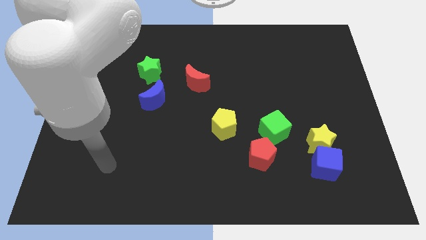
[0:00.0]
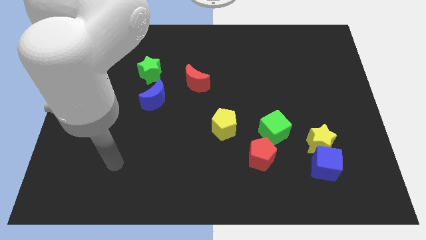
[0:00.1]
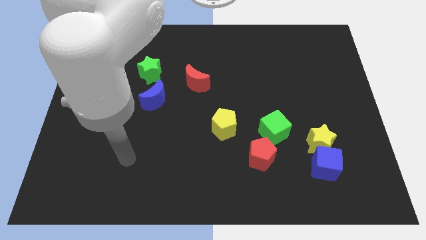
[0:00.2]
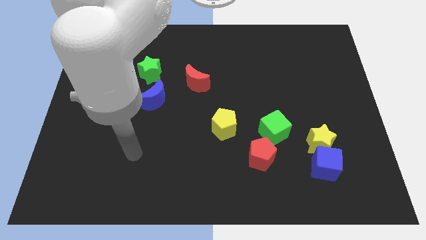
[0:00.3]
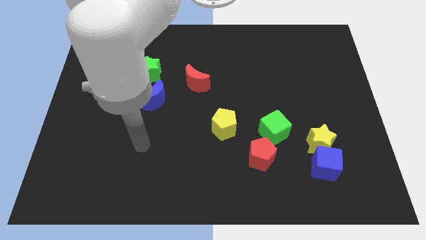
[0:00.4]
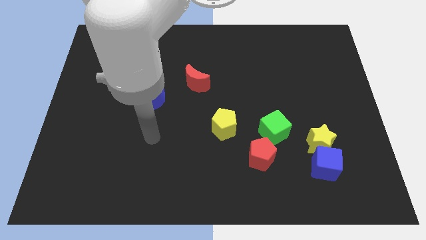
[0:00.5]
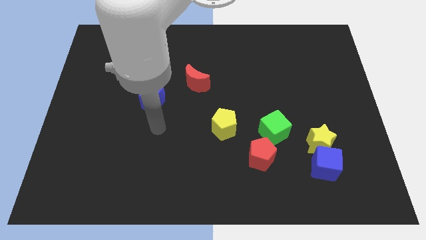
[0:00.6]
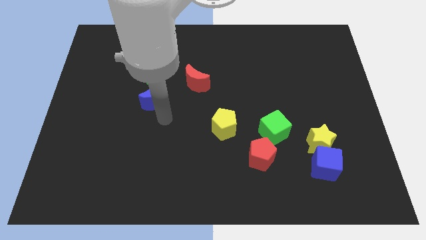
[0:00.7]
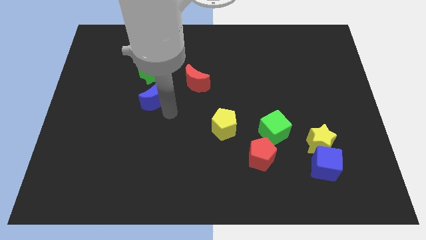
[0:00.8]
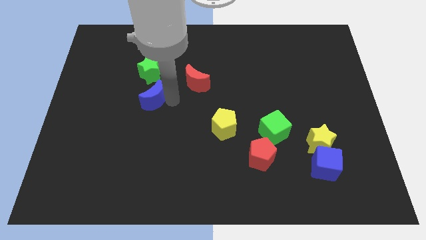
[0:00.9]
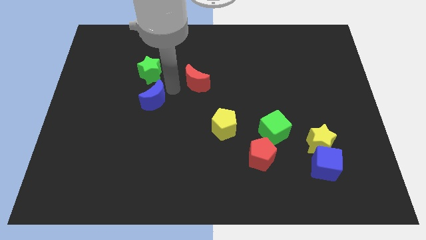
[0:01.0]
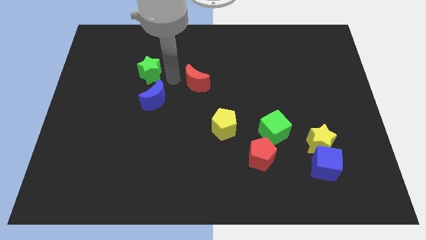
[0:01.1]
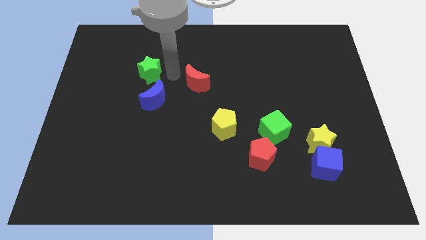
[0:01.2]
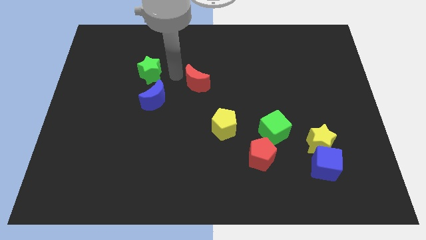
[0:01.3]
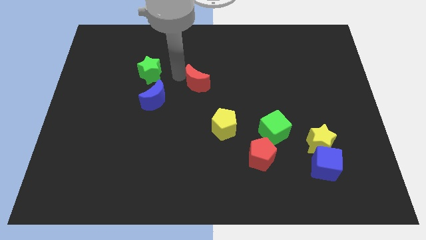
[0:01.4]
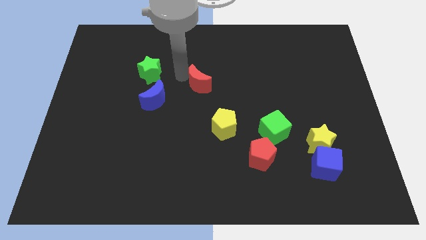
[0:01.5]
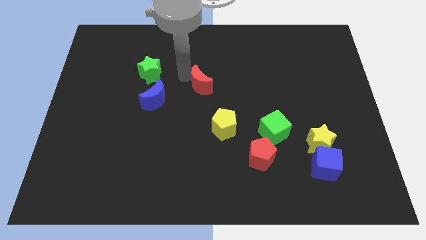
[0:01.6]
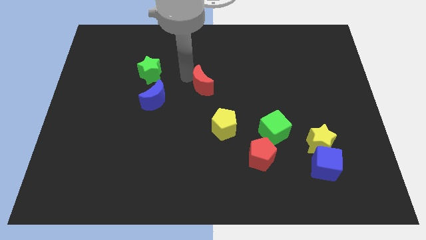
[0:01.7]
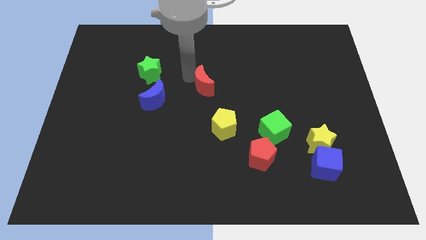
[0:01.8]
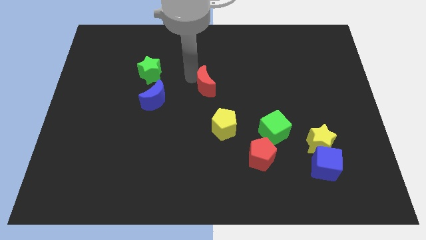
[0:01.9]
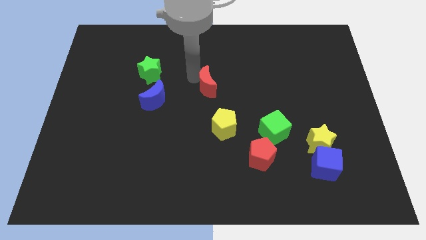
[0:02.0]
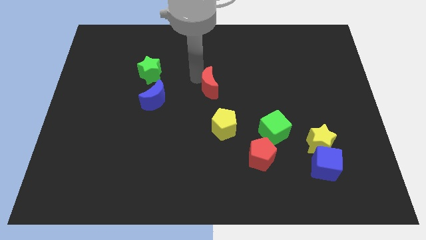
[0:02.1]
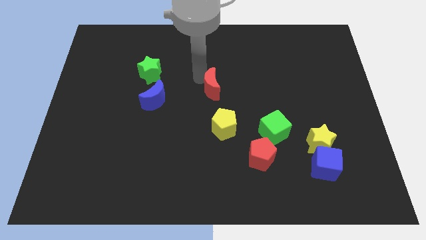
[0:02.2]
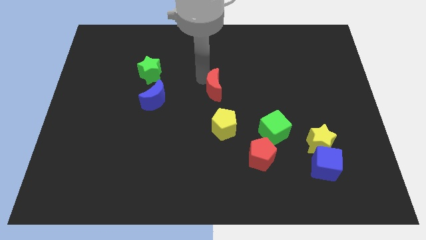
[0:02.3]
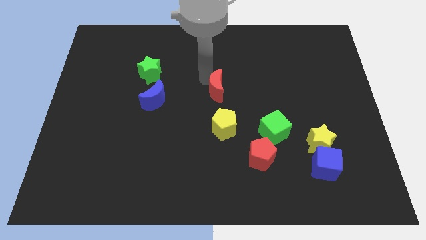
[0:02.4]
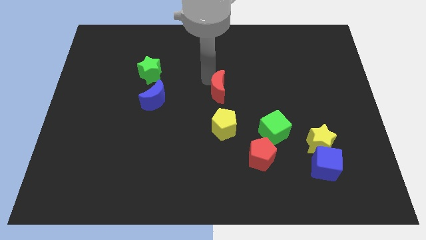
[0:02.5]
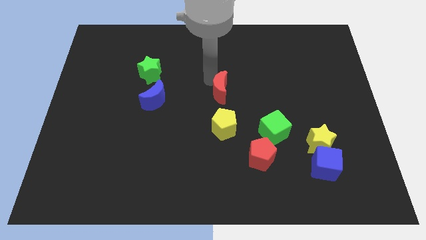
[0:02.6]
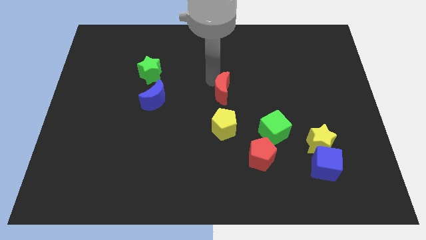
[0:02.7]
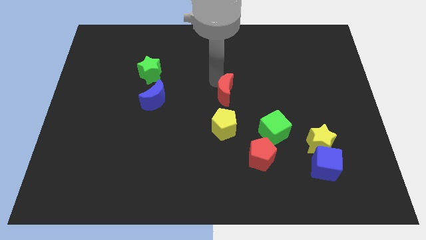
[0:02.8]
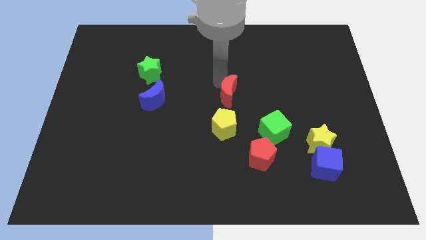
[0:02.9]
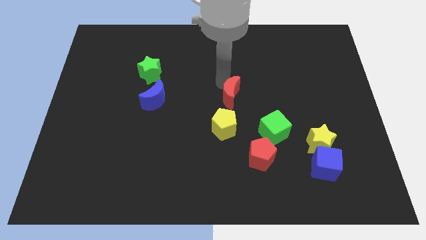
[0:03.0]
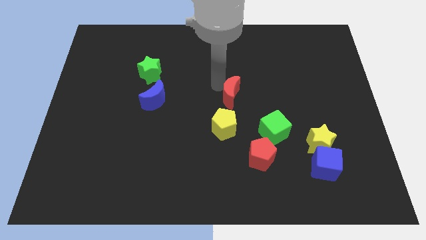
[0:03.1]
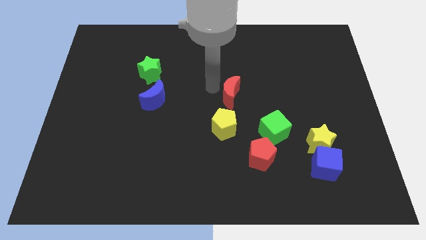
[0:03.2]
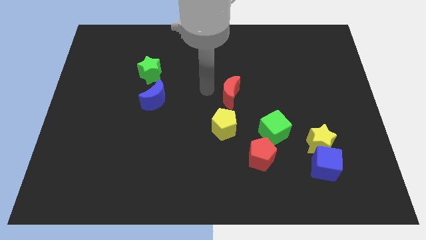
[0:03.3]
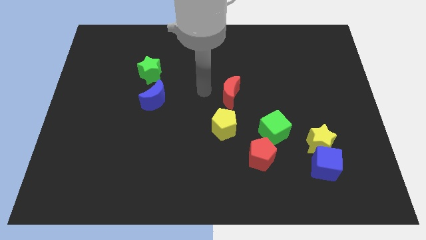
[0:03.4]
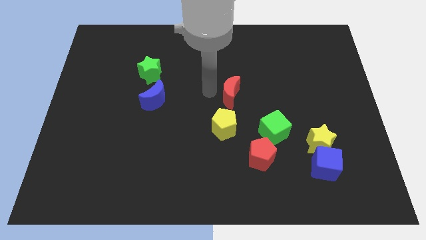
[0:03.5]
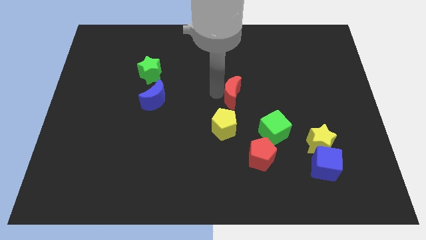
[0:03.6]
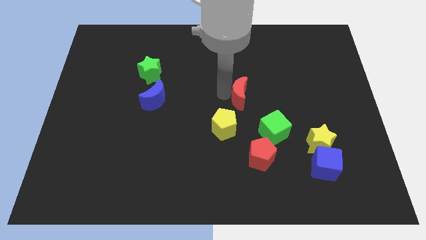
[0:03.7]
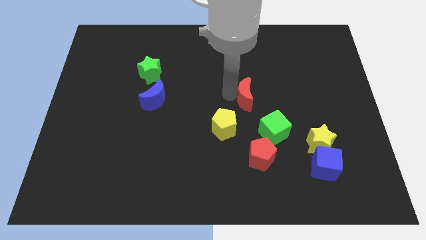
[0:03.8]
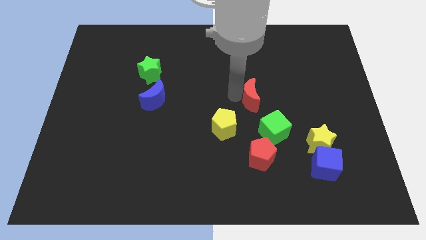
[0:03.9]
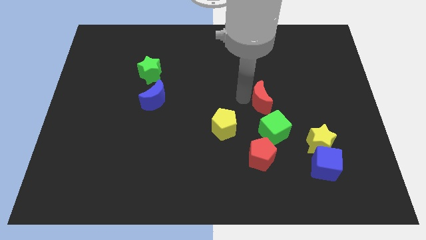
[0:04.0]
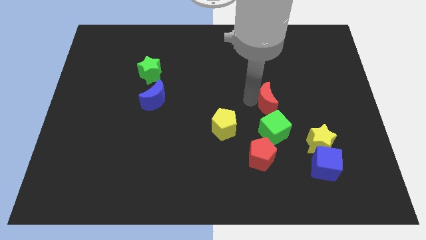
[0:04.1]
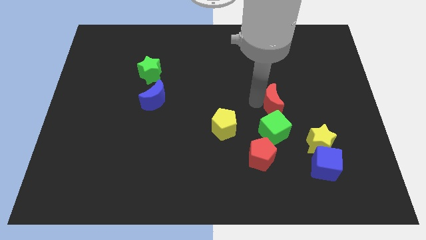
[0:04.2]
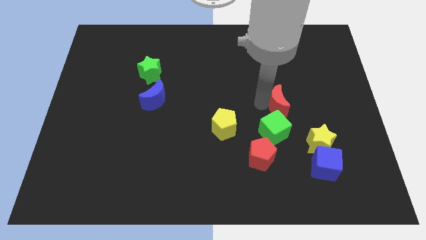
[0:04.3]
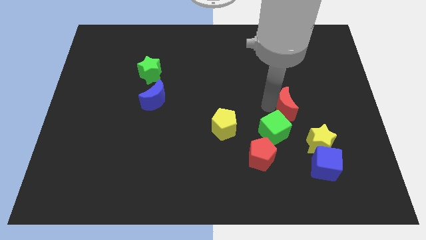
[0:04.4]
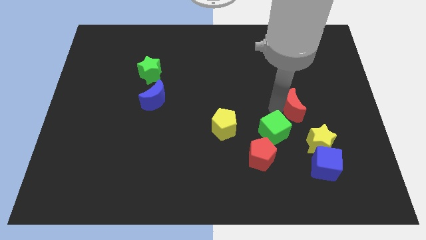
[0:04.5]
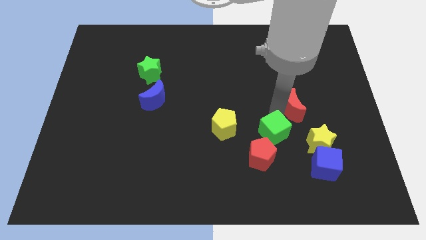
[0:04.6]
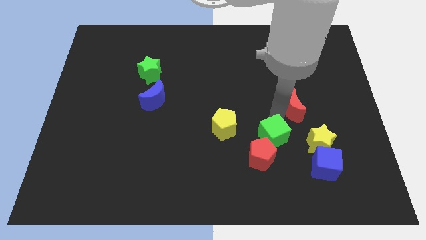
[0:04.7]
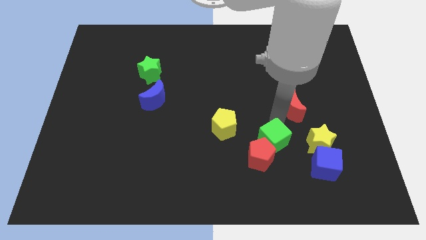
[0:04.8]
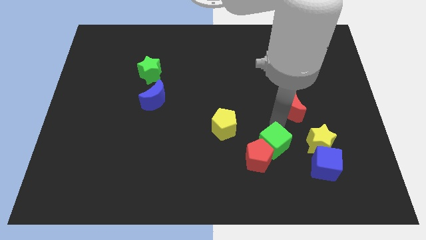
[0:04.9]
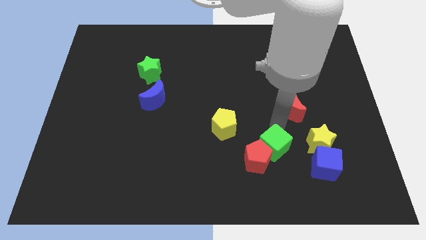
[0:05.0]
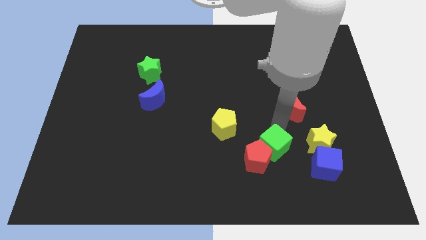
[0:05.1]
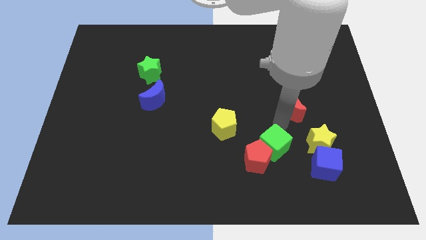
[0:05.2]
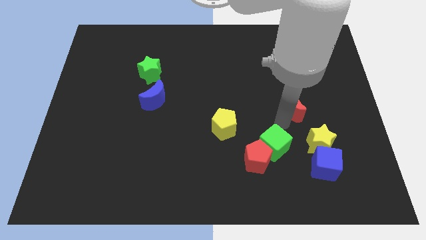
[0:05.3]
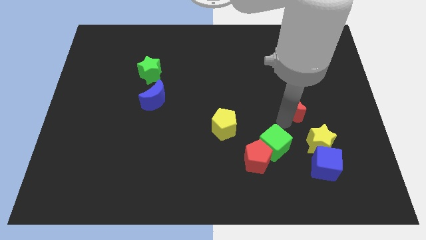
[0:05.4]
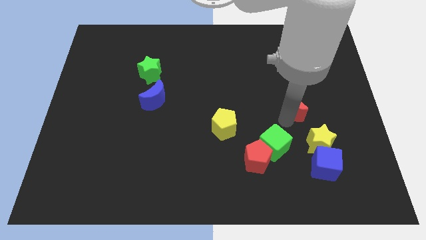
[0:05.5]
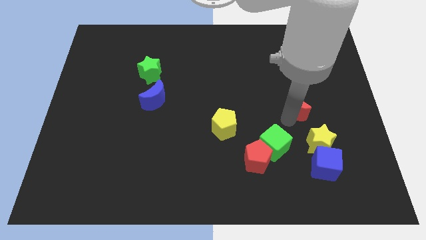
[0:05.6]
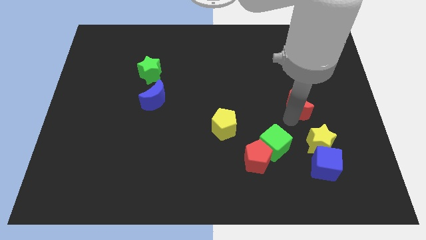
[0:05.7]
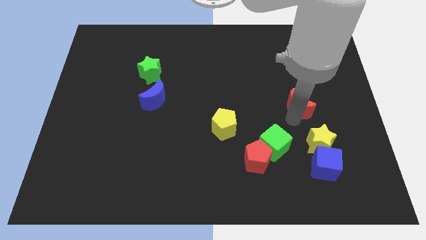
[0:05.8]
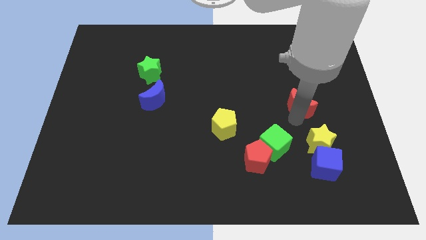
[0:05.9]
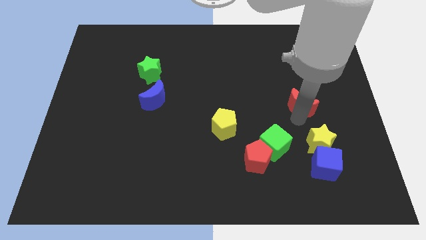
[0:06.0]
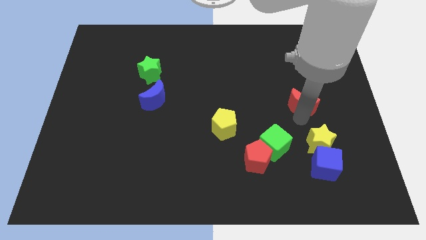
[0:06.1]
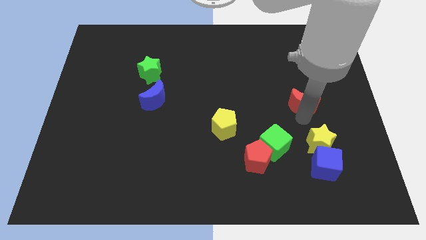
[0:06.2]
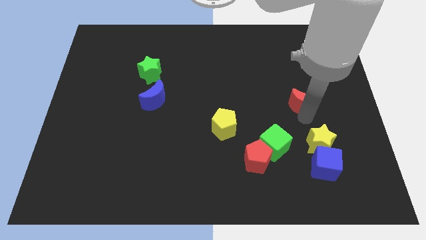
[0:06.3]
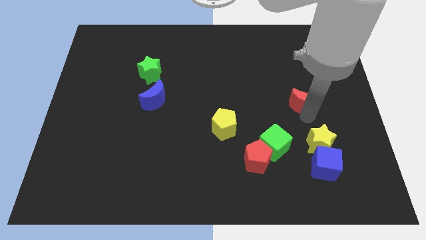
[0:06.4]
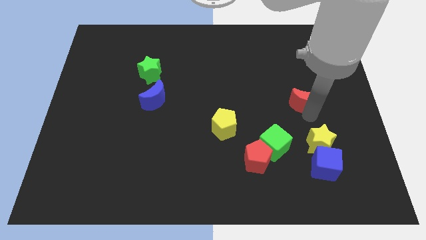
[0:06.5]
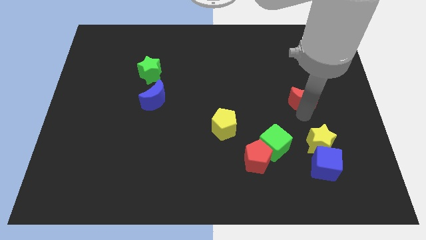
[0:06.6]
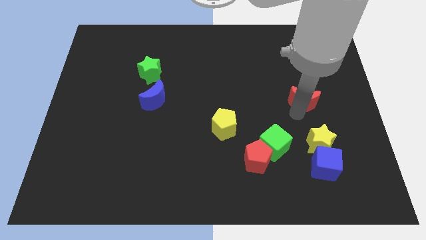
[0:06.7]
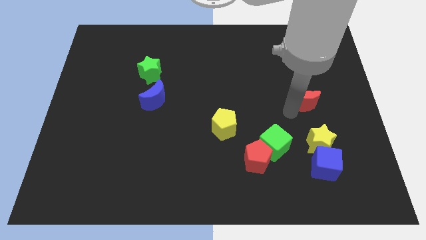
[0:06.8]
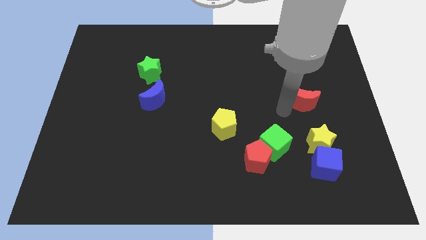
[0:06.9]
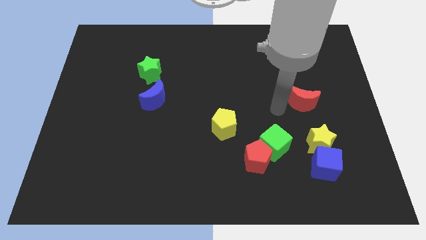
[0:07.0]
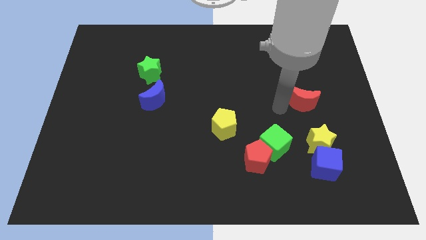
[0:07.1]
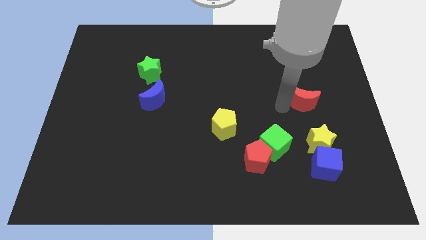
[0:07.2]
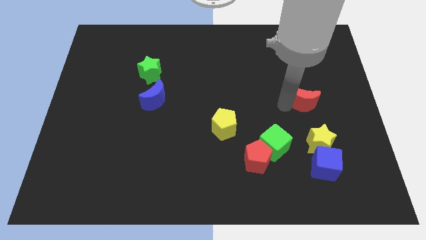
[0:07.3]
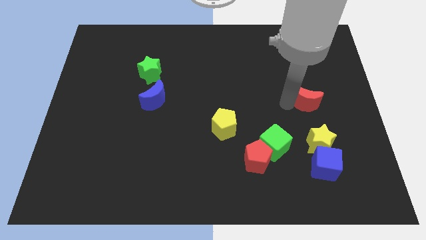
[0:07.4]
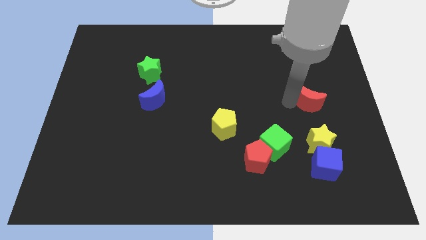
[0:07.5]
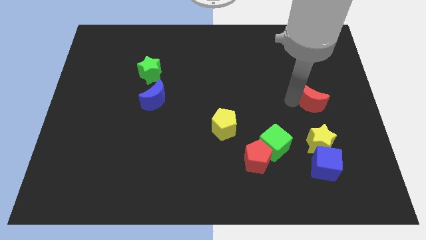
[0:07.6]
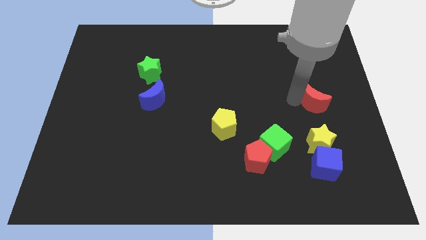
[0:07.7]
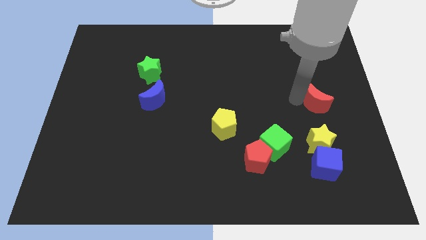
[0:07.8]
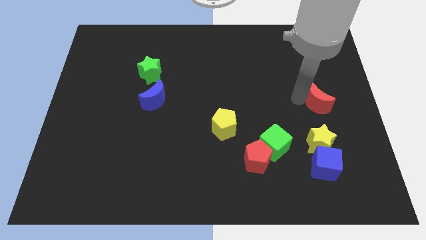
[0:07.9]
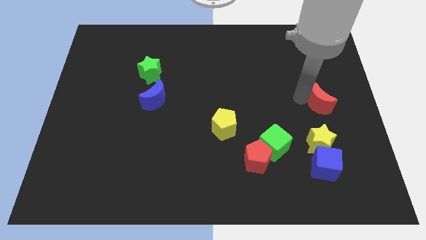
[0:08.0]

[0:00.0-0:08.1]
put the red moon to the right side

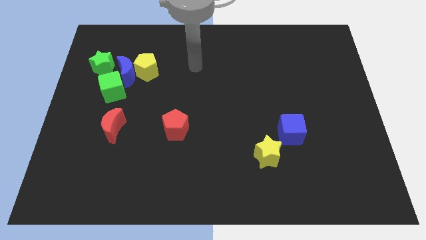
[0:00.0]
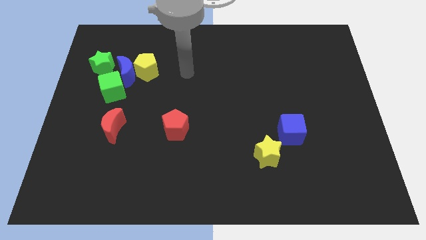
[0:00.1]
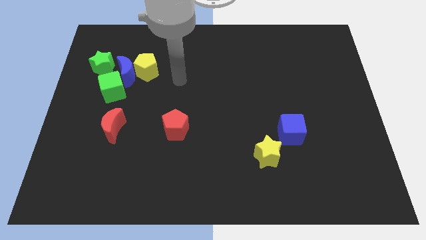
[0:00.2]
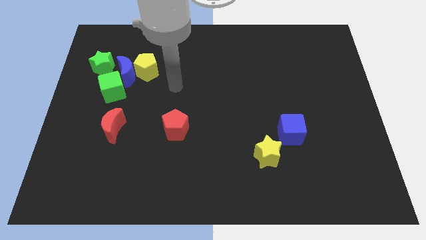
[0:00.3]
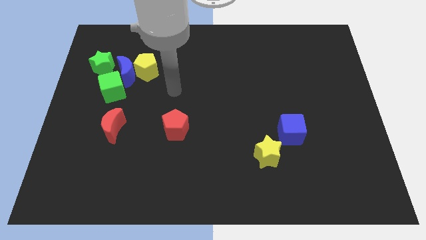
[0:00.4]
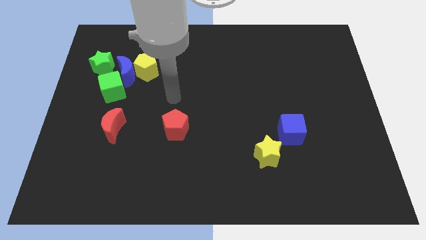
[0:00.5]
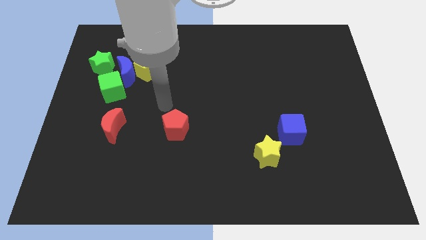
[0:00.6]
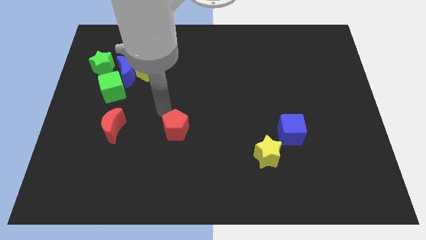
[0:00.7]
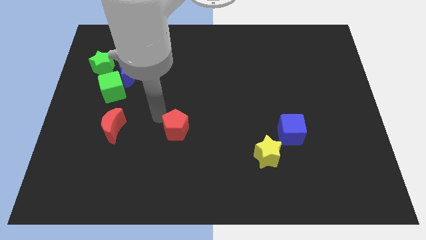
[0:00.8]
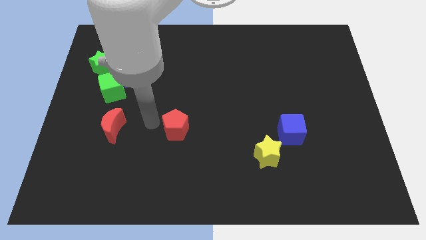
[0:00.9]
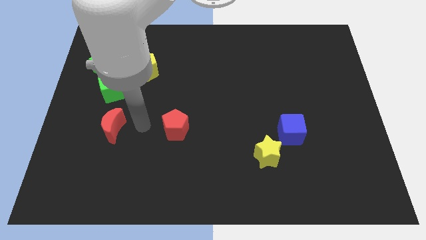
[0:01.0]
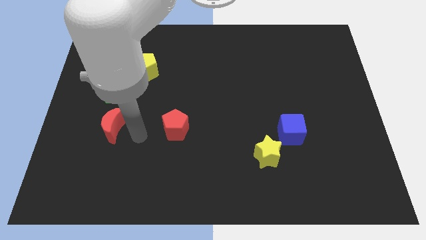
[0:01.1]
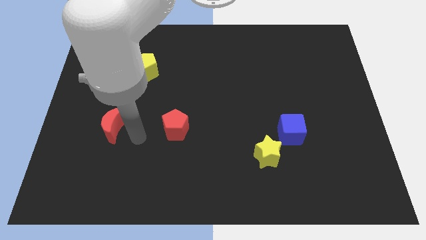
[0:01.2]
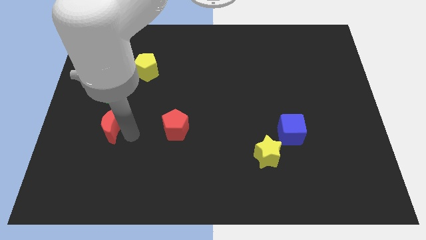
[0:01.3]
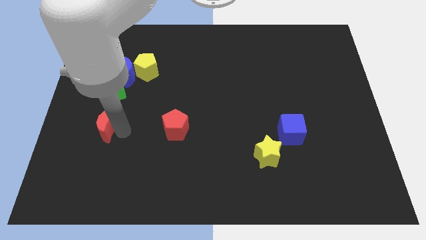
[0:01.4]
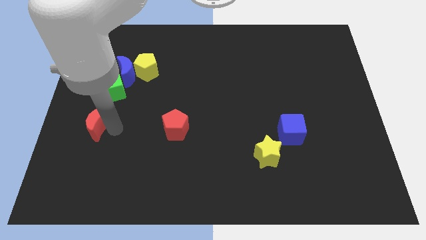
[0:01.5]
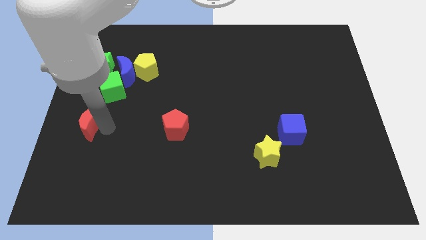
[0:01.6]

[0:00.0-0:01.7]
slide the red moon to the left side
